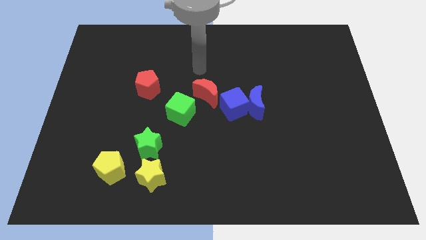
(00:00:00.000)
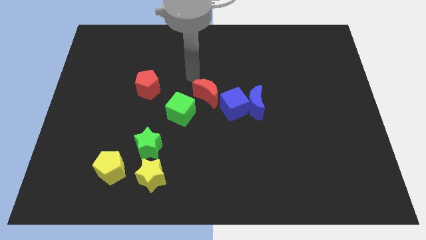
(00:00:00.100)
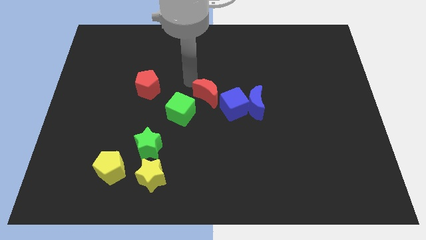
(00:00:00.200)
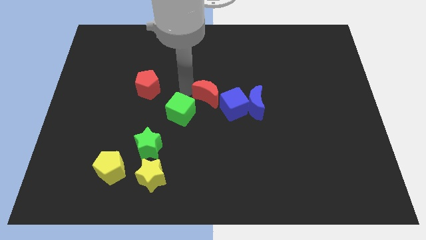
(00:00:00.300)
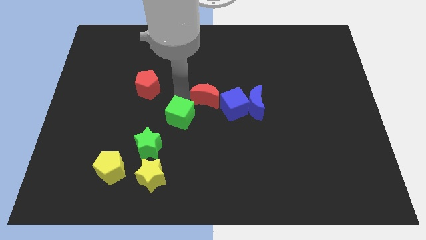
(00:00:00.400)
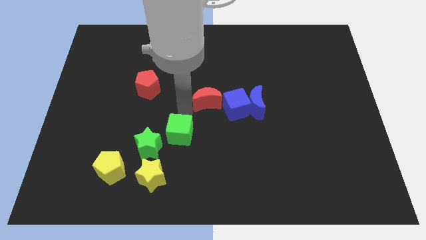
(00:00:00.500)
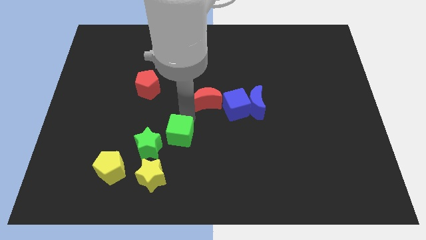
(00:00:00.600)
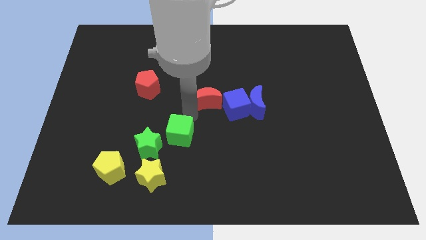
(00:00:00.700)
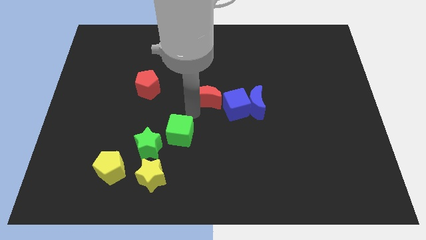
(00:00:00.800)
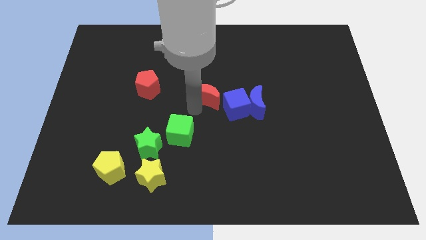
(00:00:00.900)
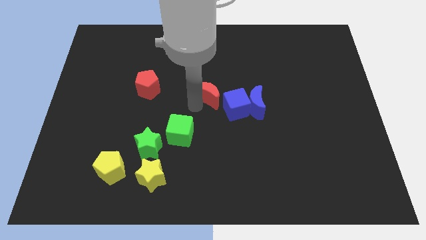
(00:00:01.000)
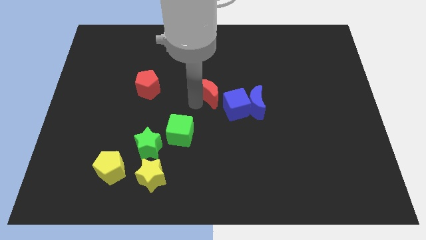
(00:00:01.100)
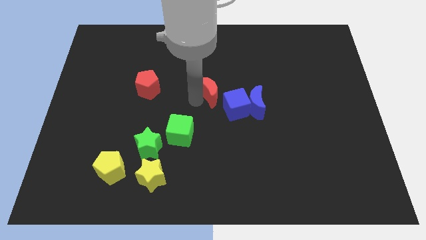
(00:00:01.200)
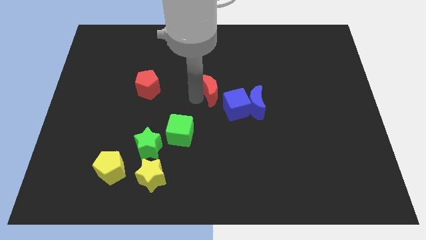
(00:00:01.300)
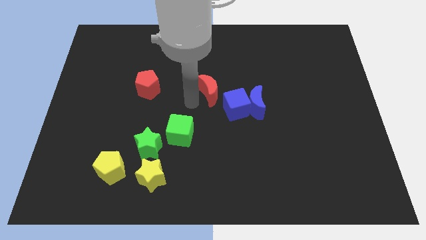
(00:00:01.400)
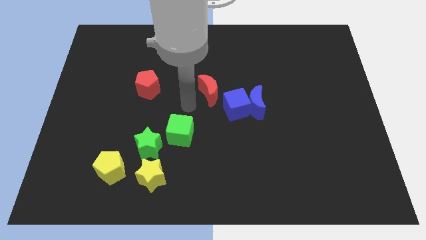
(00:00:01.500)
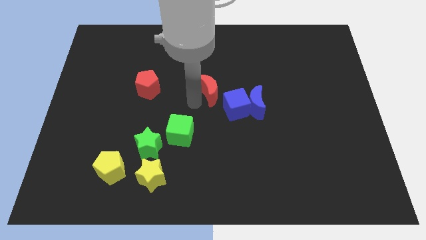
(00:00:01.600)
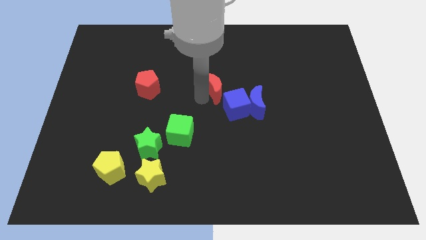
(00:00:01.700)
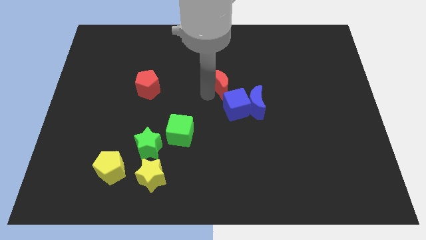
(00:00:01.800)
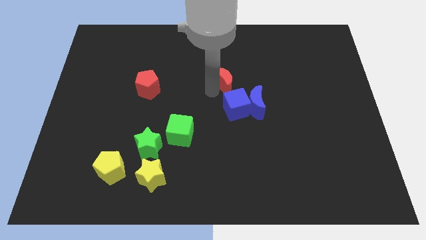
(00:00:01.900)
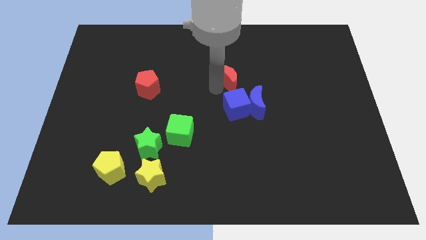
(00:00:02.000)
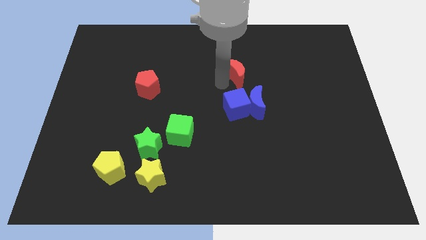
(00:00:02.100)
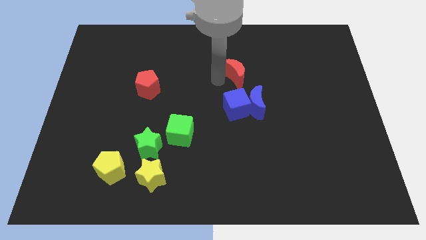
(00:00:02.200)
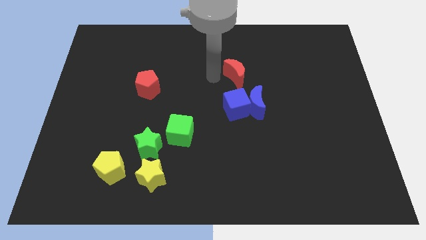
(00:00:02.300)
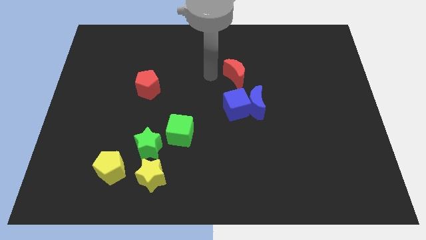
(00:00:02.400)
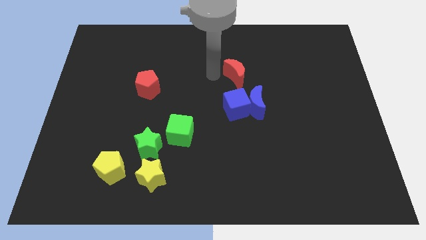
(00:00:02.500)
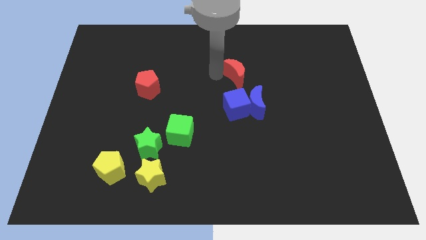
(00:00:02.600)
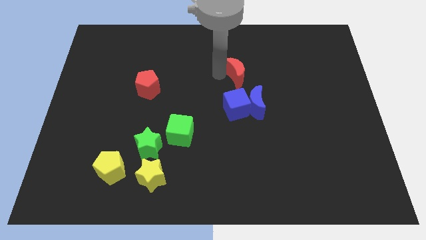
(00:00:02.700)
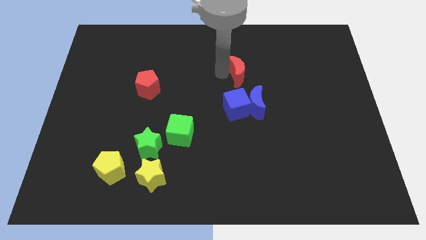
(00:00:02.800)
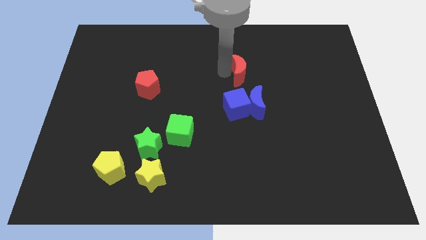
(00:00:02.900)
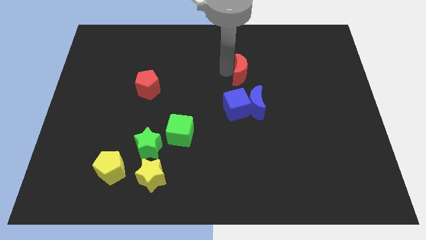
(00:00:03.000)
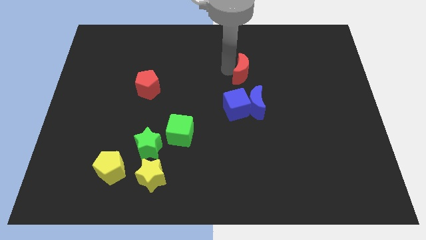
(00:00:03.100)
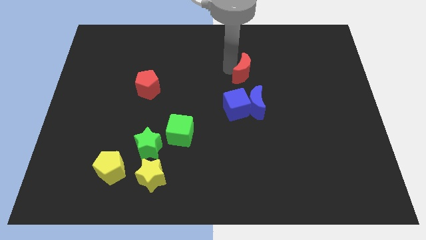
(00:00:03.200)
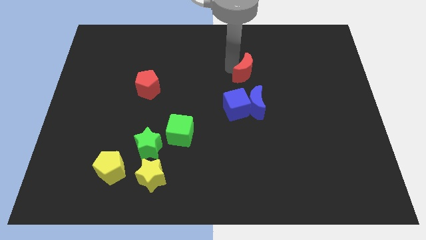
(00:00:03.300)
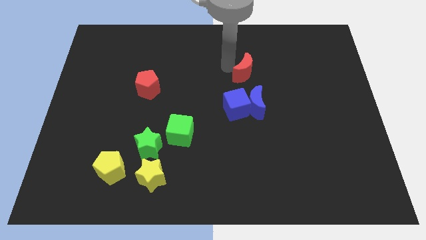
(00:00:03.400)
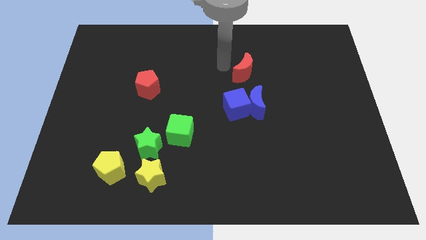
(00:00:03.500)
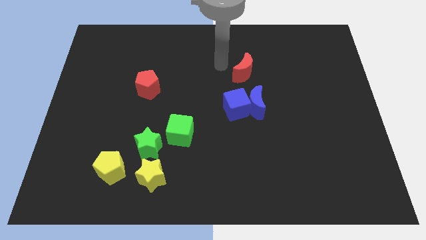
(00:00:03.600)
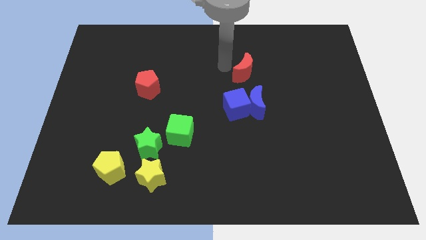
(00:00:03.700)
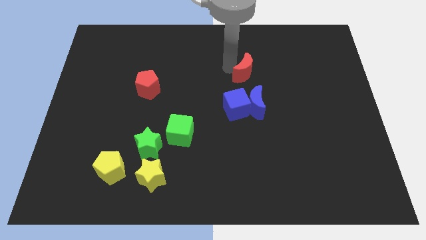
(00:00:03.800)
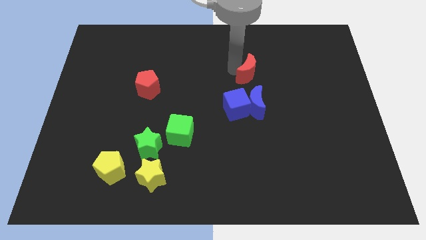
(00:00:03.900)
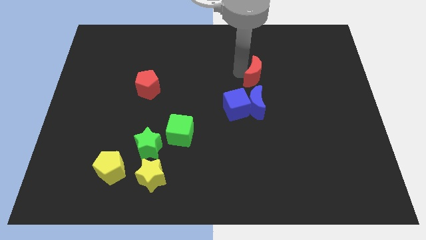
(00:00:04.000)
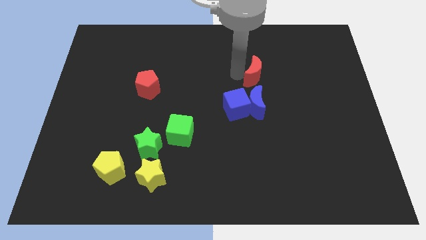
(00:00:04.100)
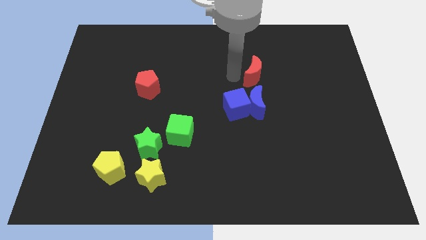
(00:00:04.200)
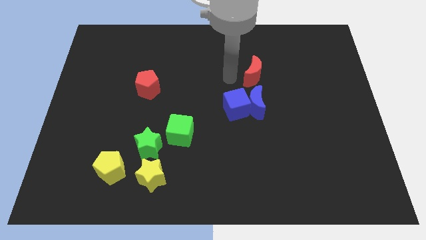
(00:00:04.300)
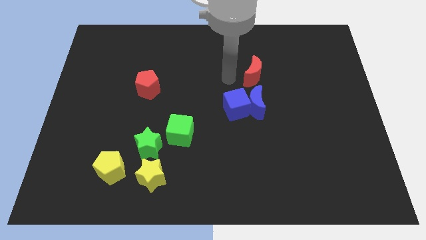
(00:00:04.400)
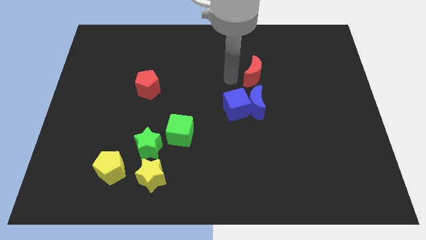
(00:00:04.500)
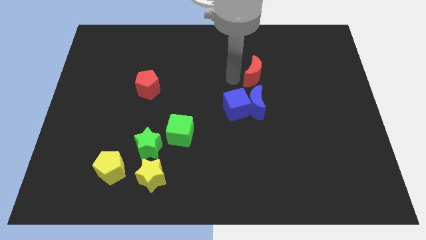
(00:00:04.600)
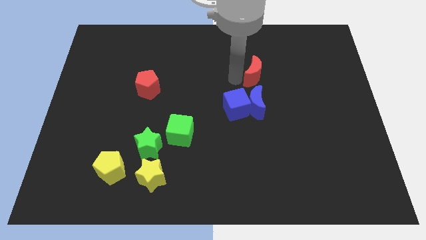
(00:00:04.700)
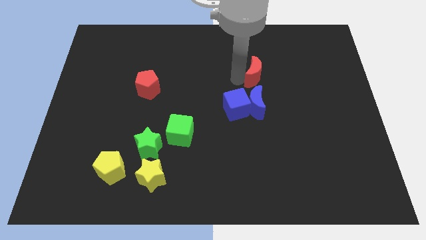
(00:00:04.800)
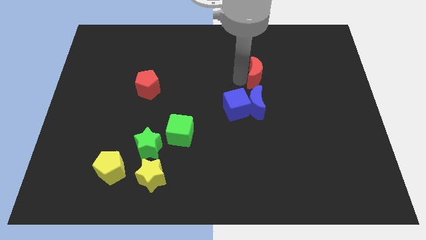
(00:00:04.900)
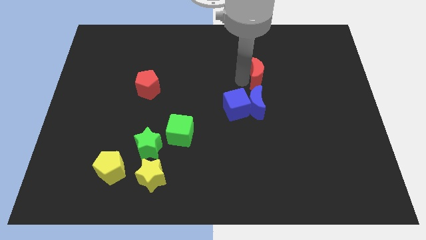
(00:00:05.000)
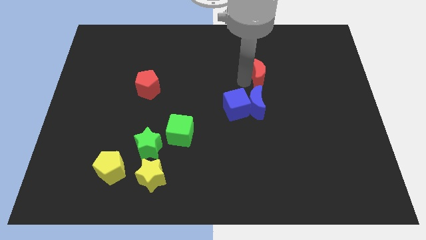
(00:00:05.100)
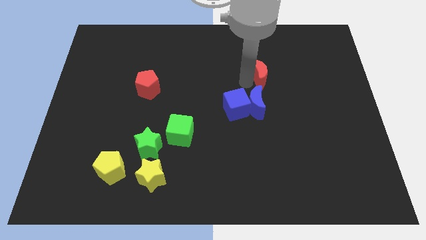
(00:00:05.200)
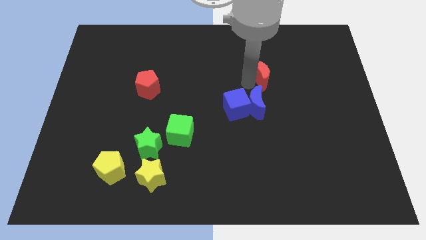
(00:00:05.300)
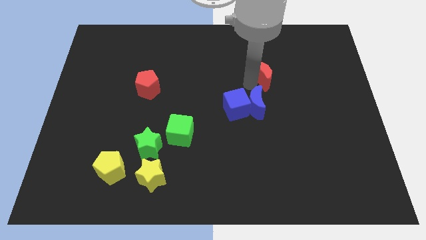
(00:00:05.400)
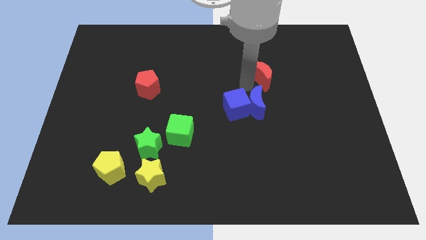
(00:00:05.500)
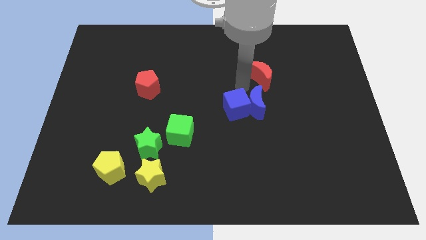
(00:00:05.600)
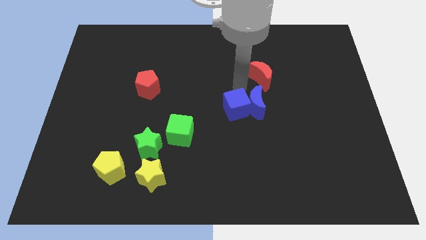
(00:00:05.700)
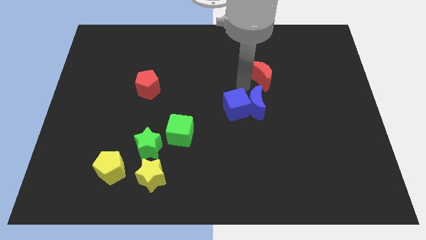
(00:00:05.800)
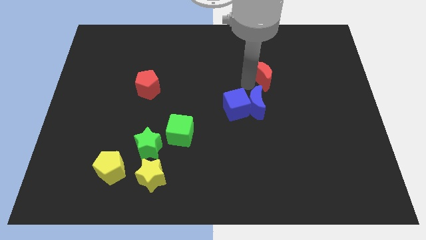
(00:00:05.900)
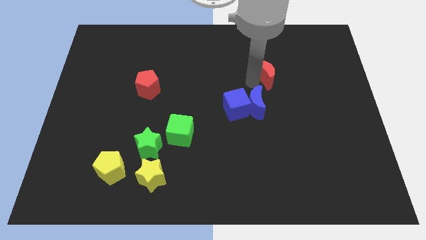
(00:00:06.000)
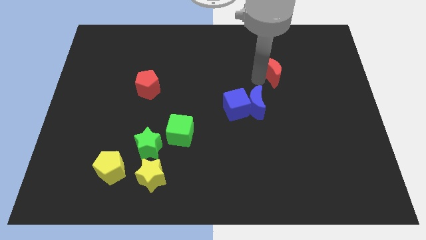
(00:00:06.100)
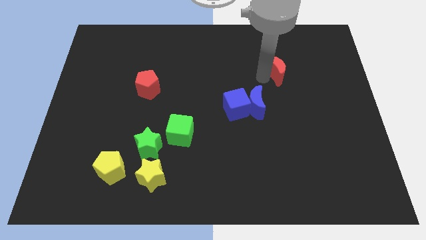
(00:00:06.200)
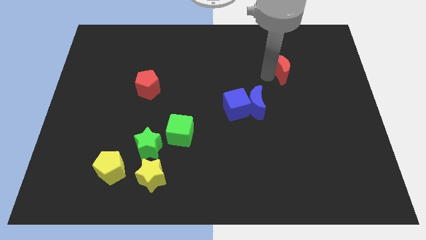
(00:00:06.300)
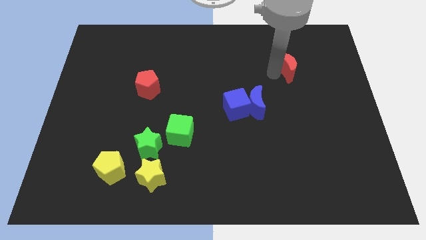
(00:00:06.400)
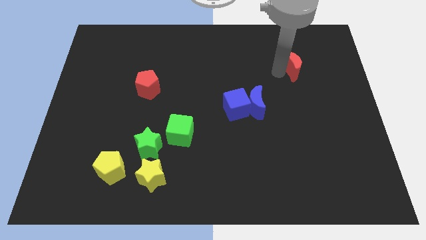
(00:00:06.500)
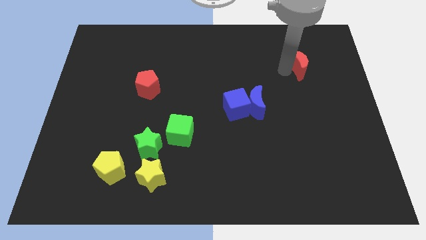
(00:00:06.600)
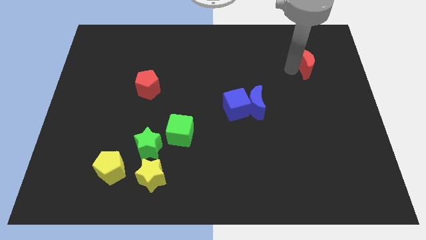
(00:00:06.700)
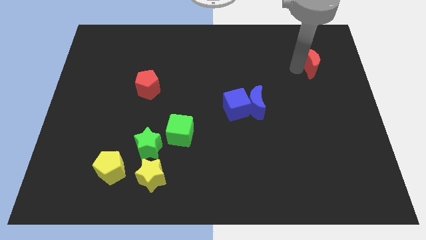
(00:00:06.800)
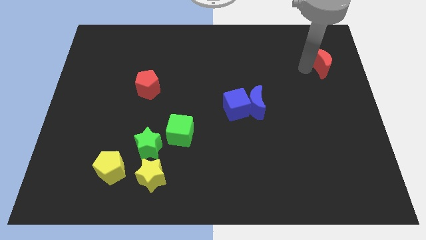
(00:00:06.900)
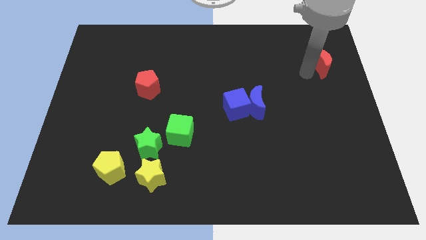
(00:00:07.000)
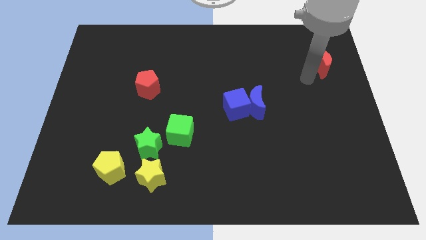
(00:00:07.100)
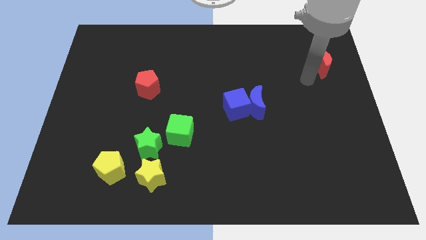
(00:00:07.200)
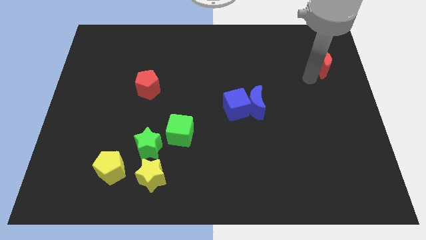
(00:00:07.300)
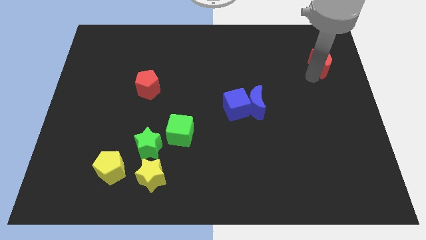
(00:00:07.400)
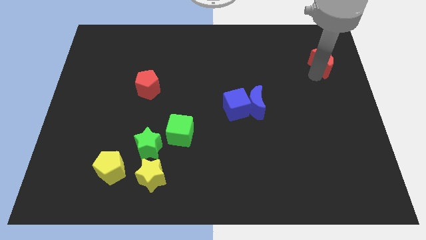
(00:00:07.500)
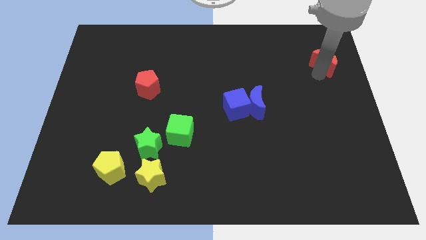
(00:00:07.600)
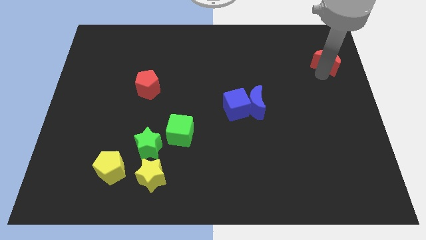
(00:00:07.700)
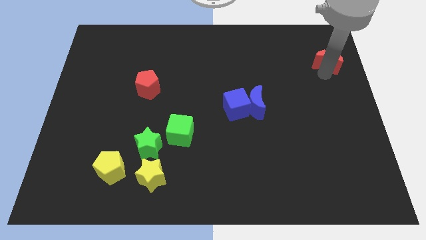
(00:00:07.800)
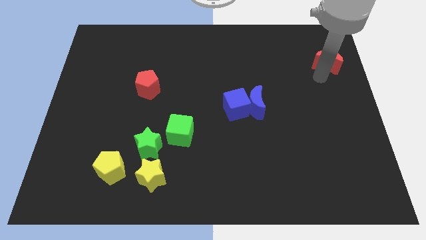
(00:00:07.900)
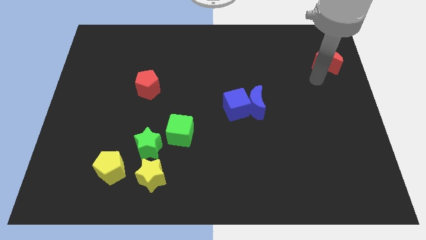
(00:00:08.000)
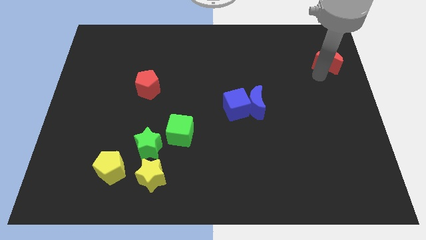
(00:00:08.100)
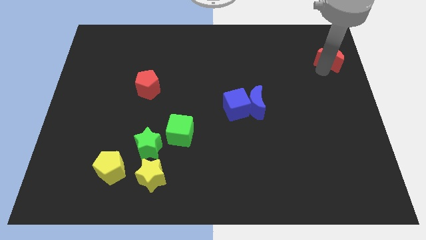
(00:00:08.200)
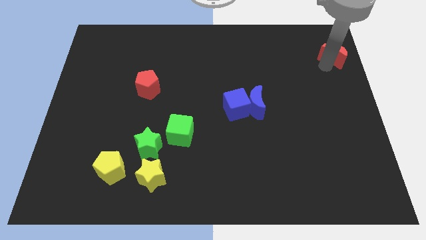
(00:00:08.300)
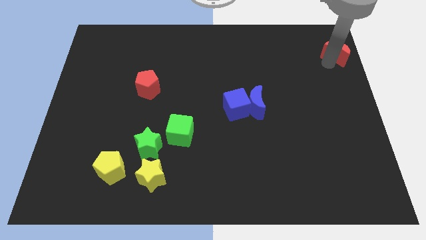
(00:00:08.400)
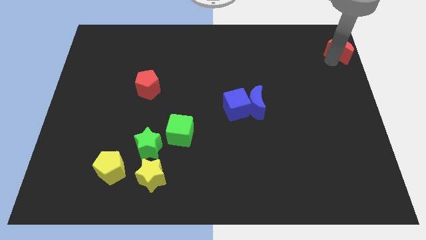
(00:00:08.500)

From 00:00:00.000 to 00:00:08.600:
move the red moon to the top right corner
